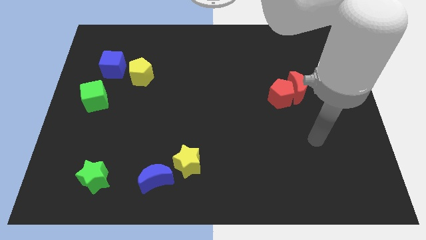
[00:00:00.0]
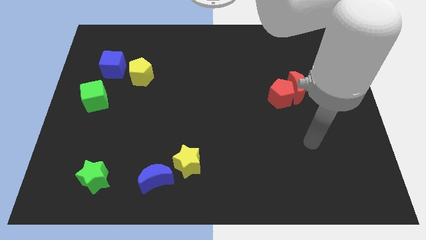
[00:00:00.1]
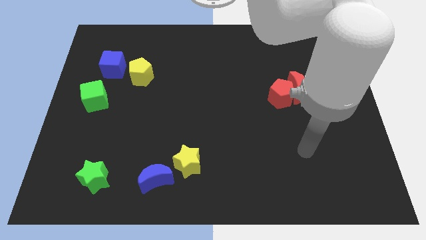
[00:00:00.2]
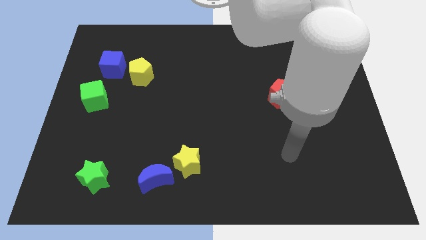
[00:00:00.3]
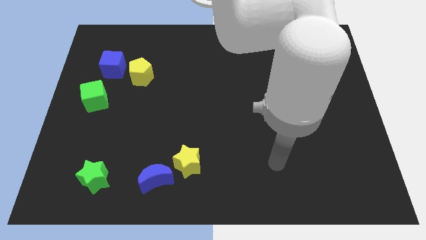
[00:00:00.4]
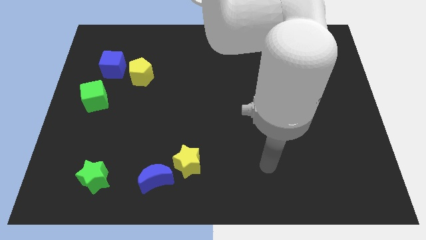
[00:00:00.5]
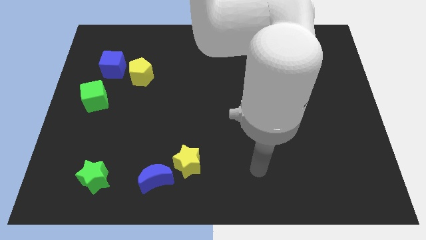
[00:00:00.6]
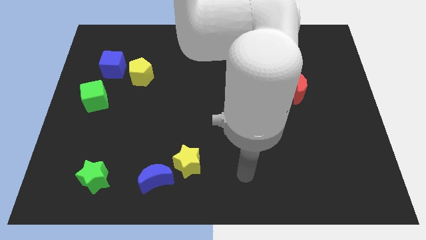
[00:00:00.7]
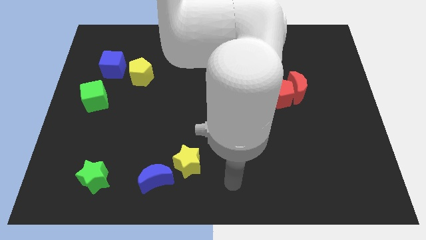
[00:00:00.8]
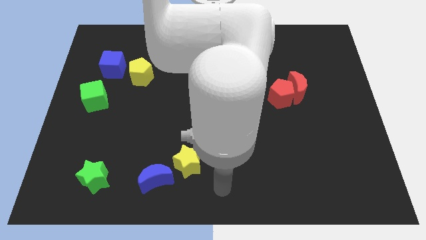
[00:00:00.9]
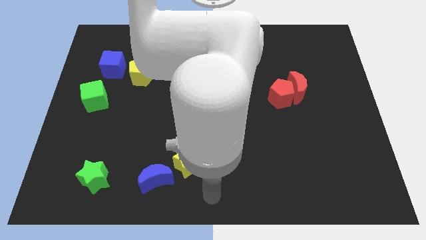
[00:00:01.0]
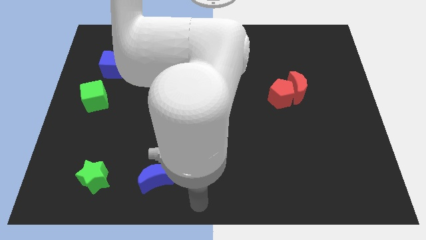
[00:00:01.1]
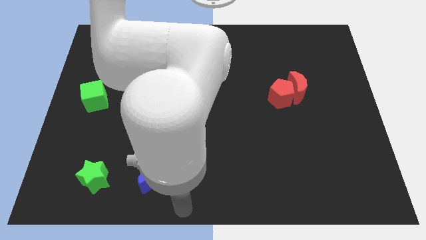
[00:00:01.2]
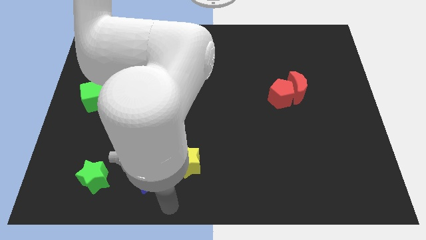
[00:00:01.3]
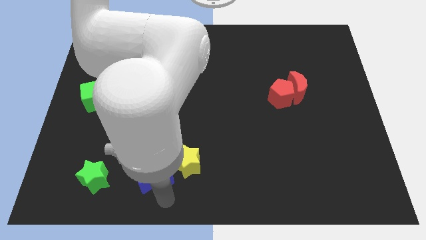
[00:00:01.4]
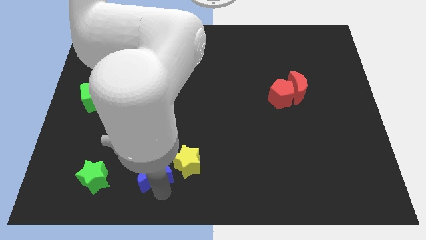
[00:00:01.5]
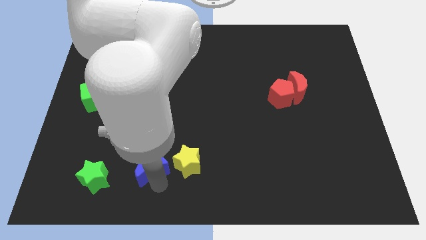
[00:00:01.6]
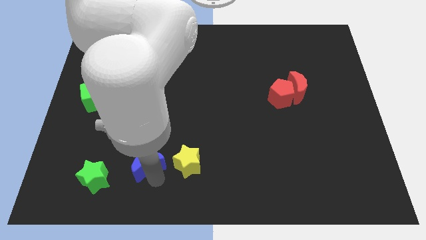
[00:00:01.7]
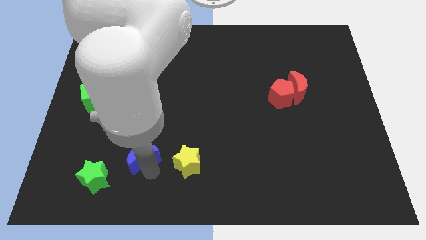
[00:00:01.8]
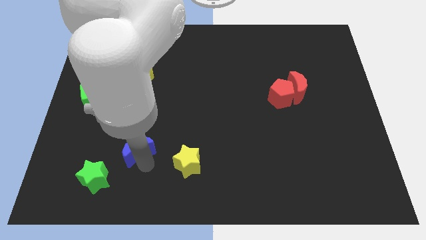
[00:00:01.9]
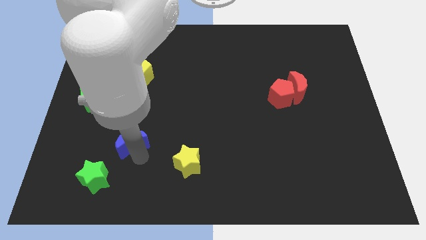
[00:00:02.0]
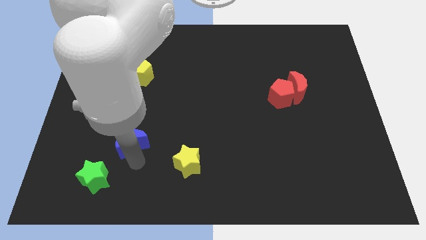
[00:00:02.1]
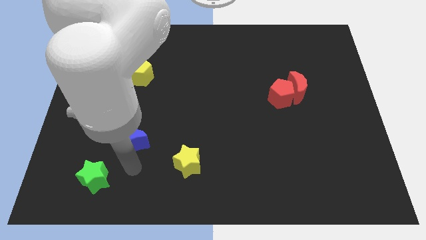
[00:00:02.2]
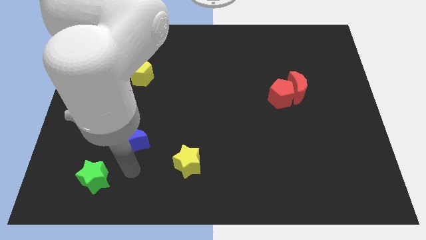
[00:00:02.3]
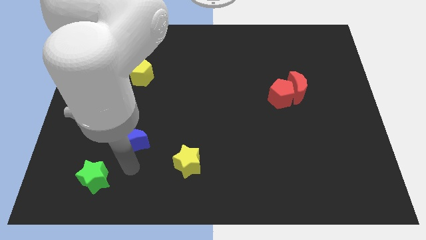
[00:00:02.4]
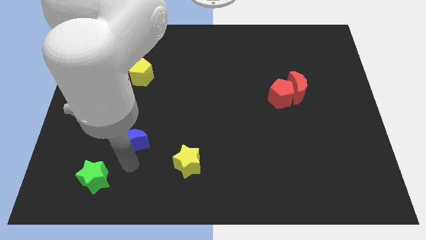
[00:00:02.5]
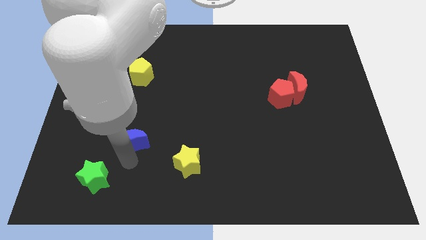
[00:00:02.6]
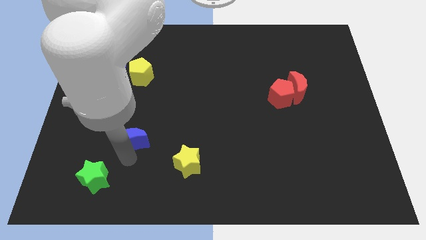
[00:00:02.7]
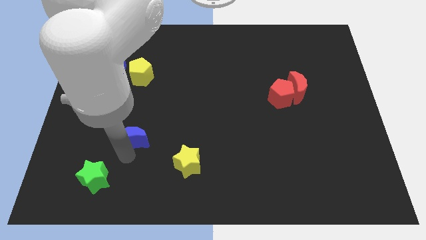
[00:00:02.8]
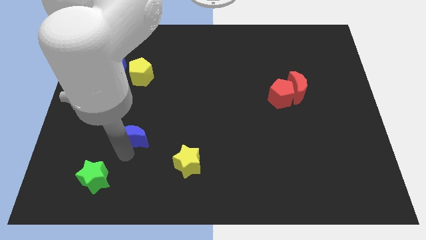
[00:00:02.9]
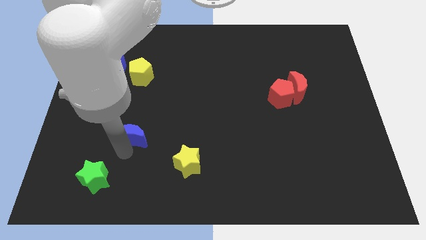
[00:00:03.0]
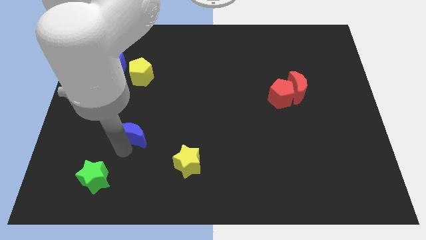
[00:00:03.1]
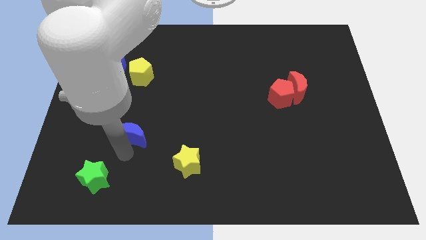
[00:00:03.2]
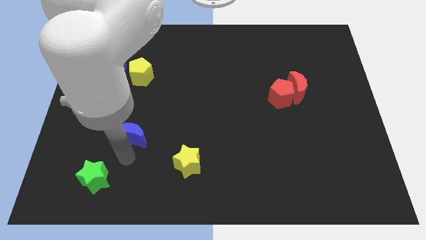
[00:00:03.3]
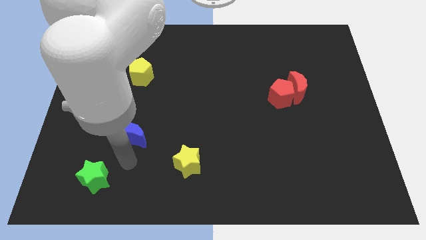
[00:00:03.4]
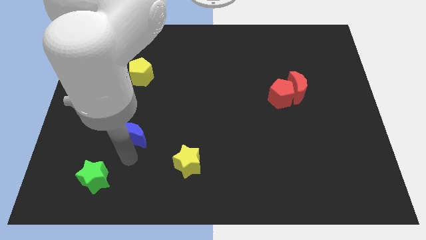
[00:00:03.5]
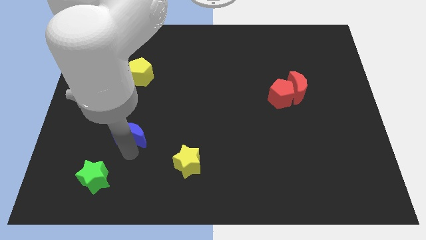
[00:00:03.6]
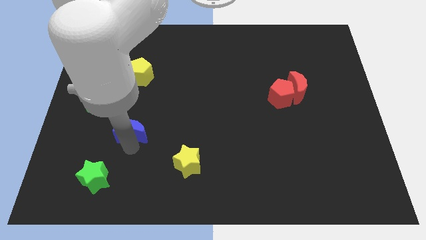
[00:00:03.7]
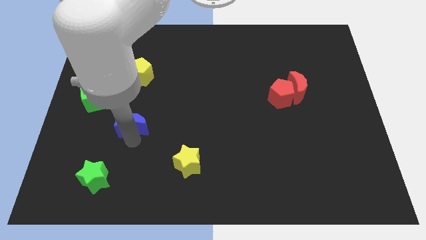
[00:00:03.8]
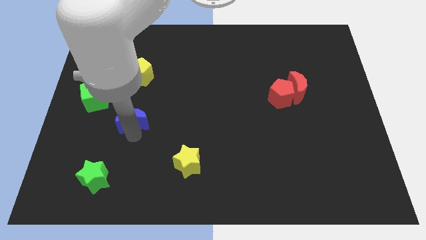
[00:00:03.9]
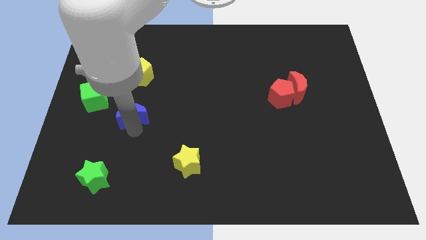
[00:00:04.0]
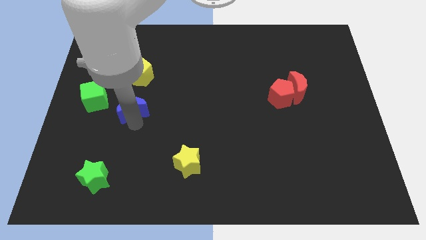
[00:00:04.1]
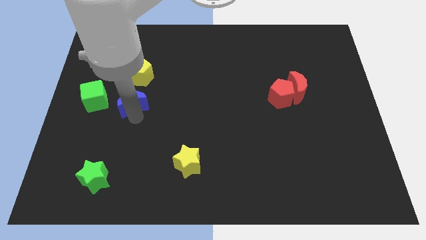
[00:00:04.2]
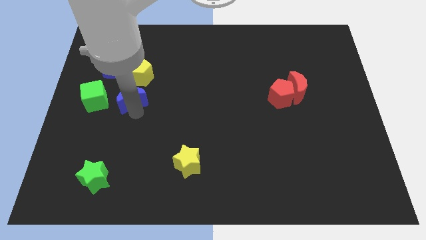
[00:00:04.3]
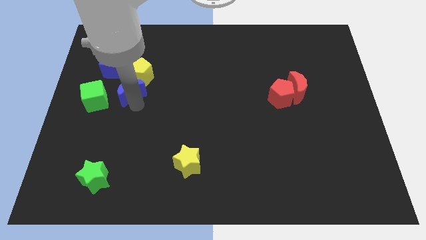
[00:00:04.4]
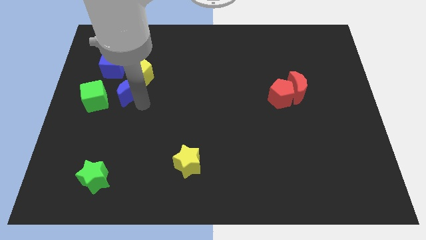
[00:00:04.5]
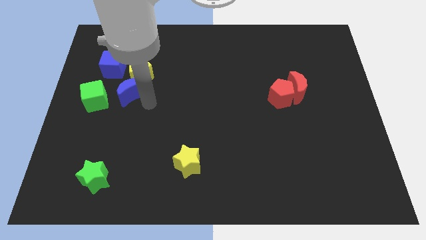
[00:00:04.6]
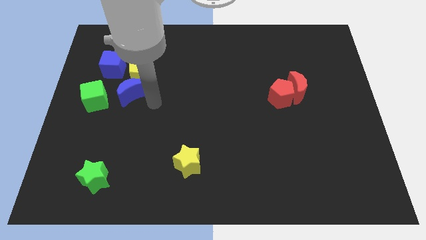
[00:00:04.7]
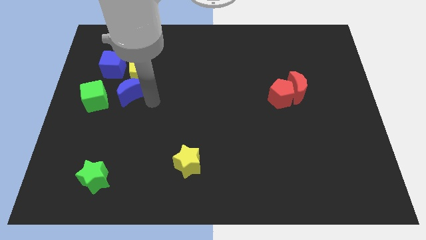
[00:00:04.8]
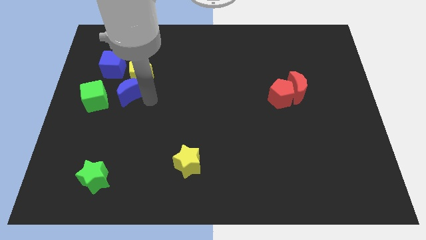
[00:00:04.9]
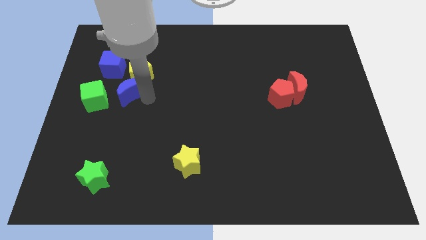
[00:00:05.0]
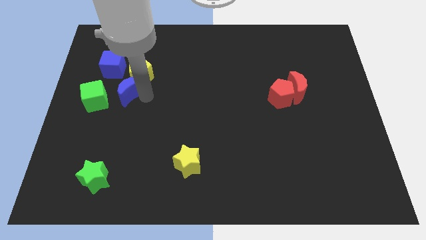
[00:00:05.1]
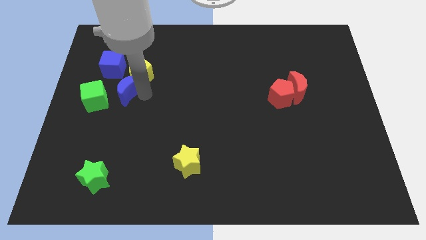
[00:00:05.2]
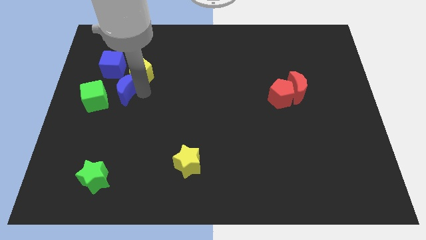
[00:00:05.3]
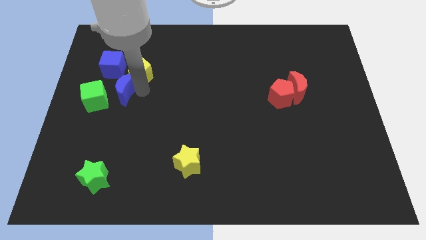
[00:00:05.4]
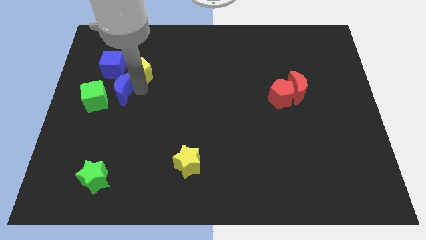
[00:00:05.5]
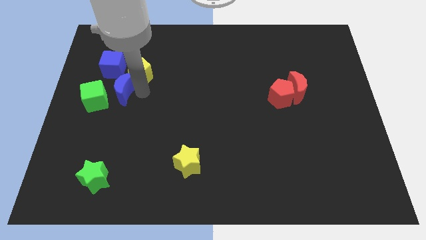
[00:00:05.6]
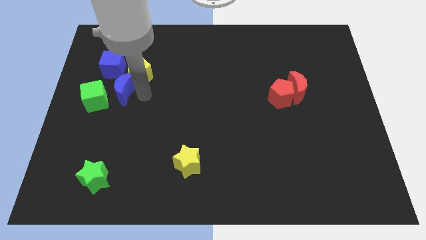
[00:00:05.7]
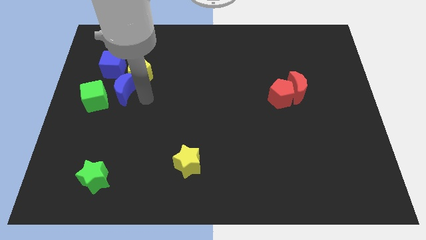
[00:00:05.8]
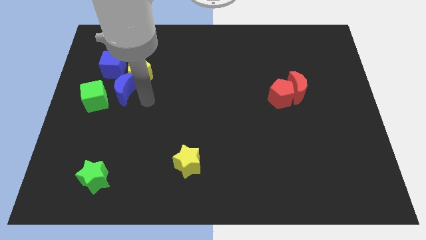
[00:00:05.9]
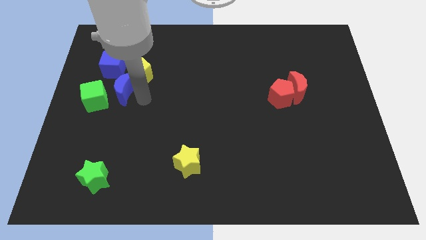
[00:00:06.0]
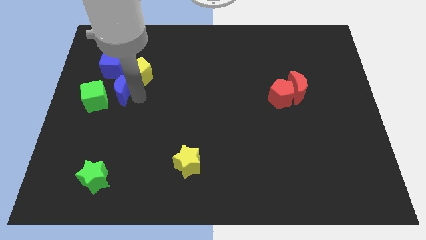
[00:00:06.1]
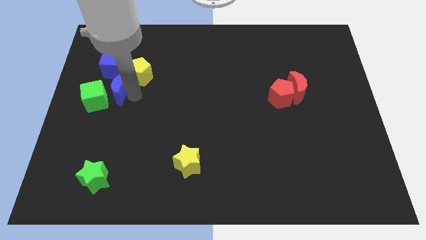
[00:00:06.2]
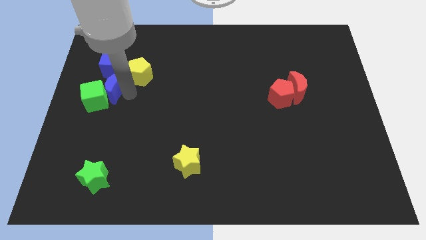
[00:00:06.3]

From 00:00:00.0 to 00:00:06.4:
push the blue moon to the top of the green cube

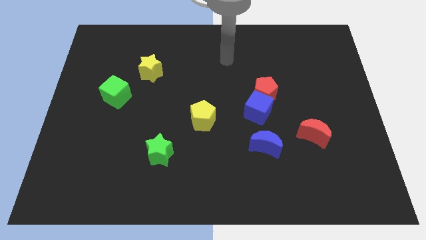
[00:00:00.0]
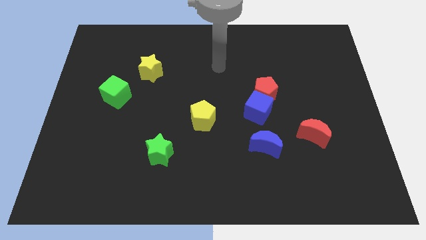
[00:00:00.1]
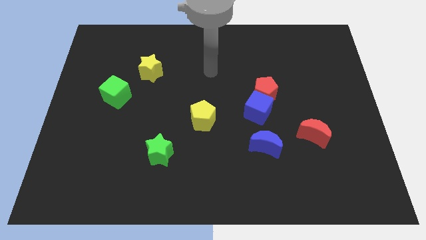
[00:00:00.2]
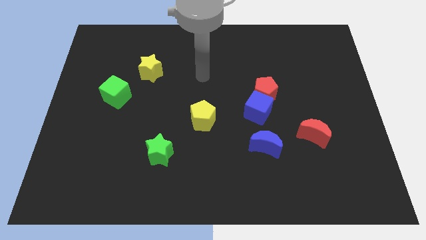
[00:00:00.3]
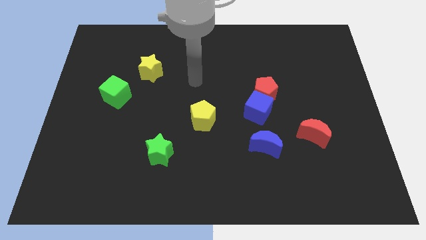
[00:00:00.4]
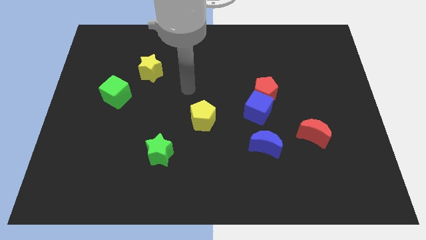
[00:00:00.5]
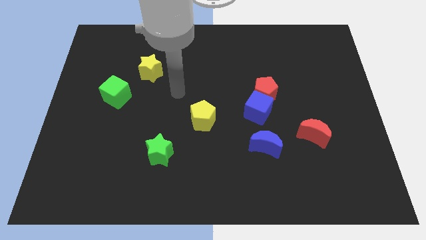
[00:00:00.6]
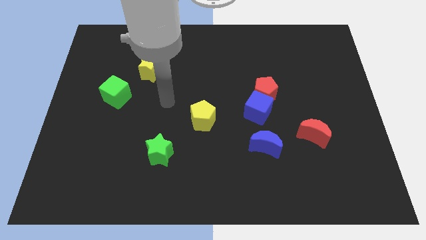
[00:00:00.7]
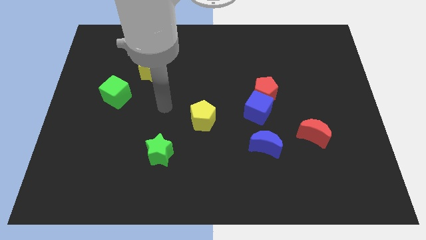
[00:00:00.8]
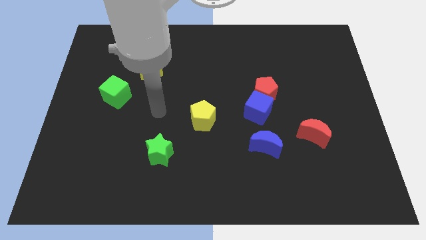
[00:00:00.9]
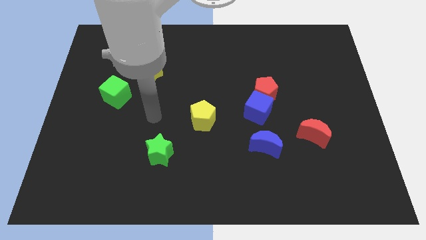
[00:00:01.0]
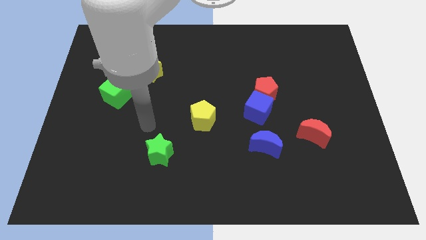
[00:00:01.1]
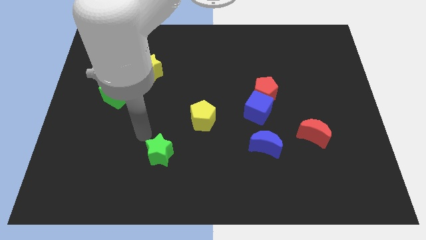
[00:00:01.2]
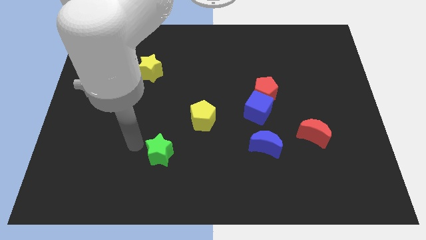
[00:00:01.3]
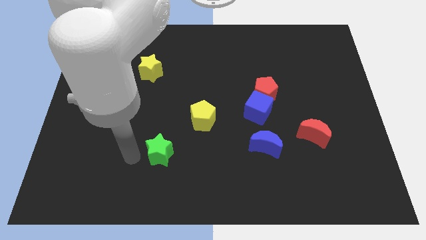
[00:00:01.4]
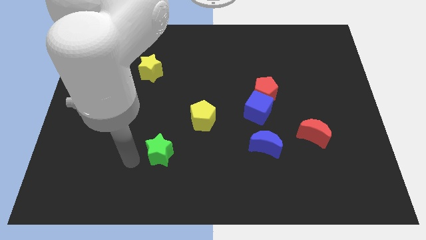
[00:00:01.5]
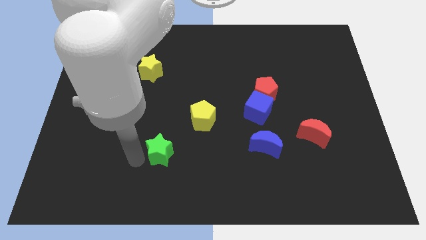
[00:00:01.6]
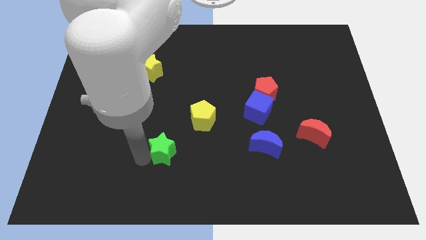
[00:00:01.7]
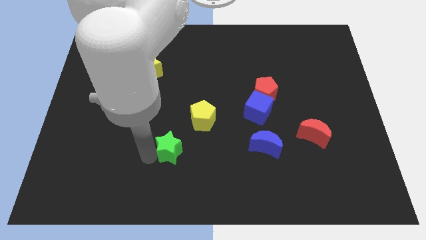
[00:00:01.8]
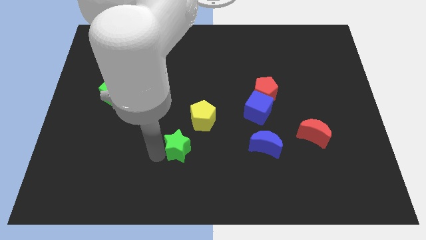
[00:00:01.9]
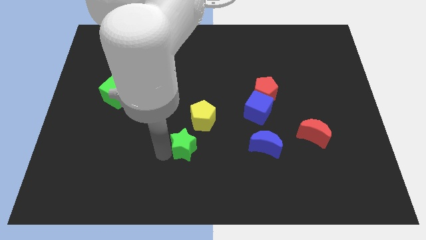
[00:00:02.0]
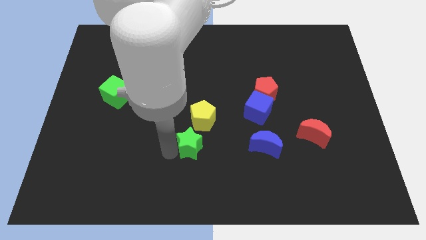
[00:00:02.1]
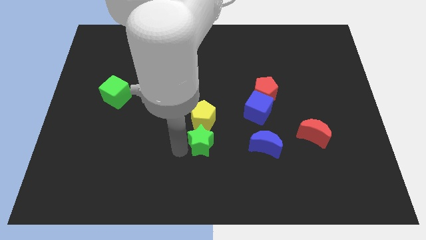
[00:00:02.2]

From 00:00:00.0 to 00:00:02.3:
push the green star to the bottom right of the yellow pentagon
